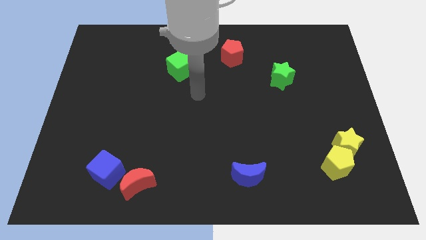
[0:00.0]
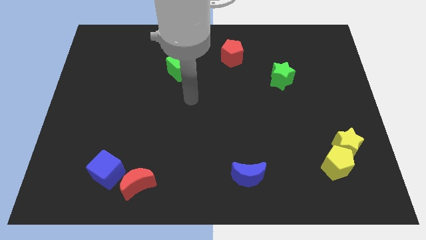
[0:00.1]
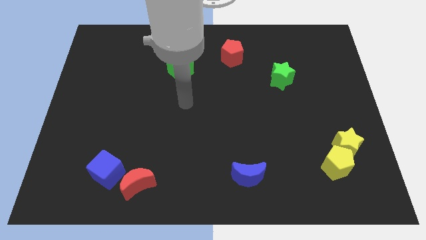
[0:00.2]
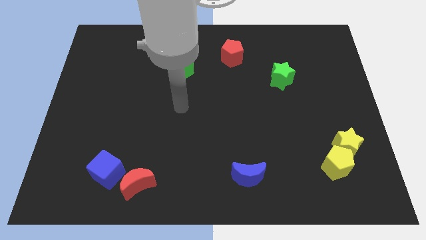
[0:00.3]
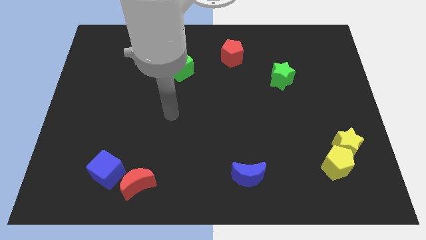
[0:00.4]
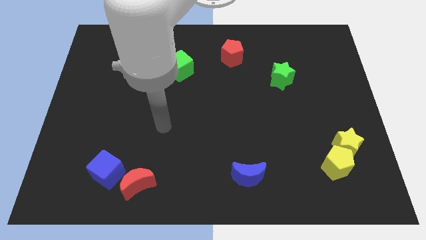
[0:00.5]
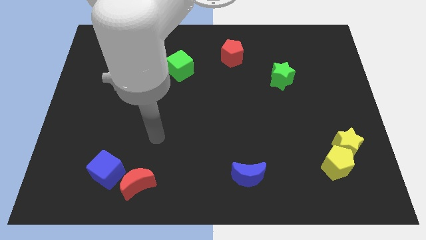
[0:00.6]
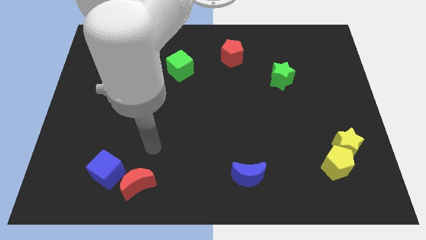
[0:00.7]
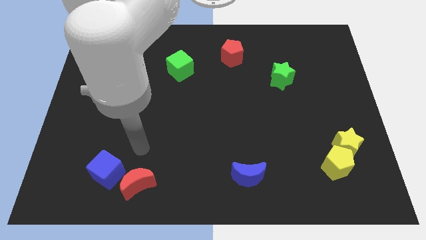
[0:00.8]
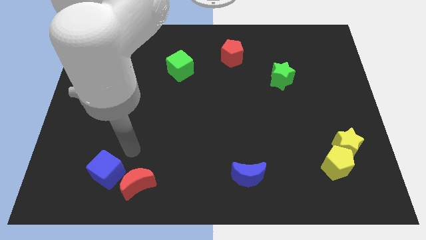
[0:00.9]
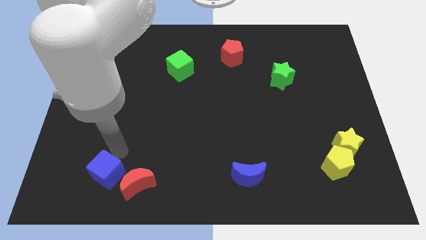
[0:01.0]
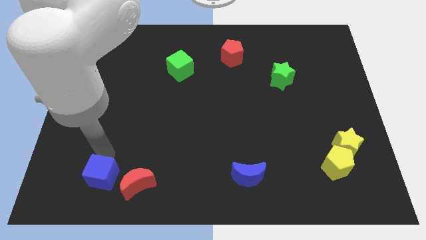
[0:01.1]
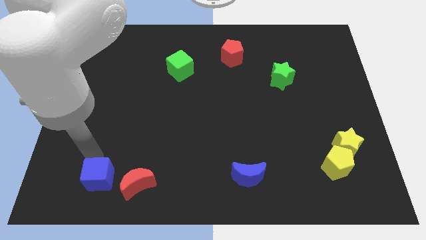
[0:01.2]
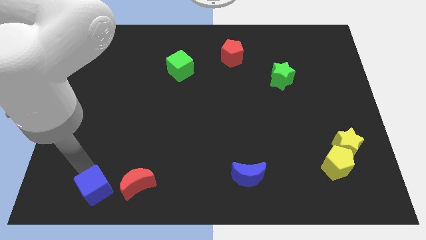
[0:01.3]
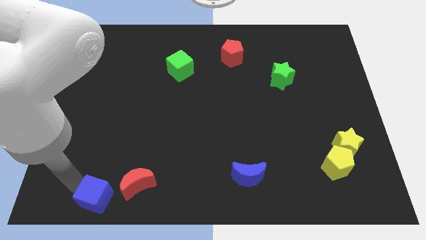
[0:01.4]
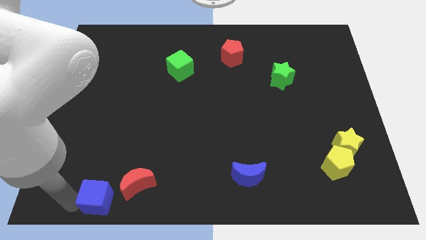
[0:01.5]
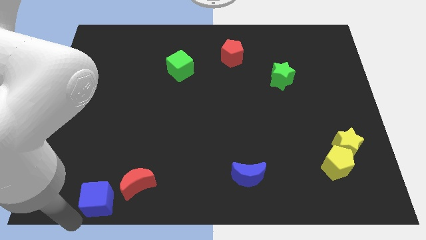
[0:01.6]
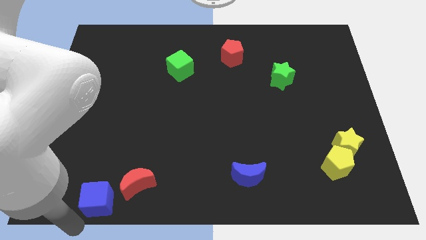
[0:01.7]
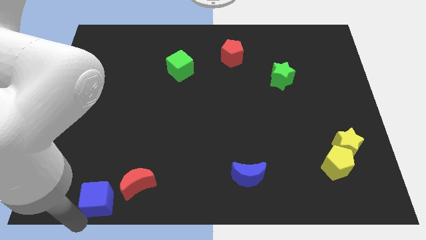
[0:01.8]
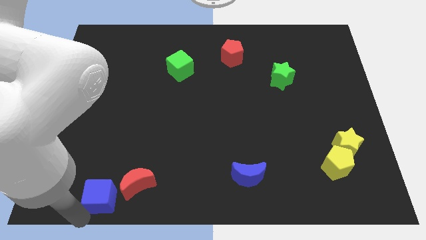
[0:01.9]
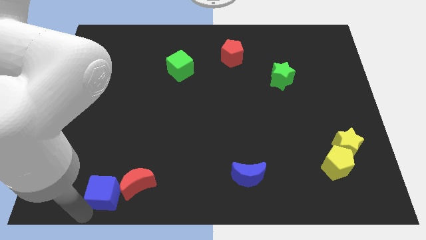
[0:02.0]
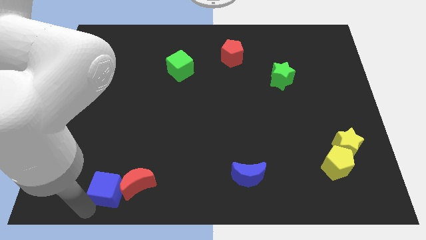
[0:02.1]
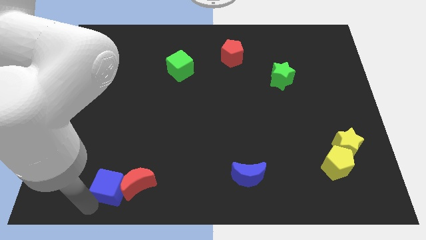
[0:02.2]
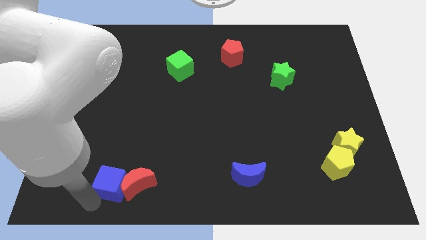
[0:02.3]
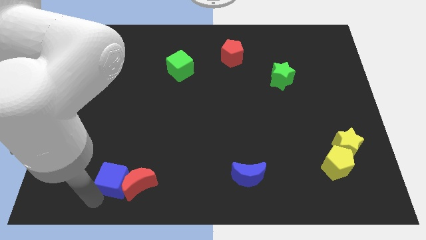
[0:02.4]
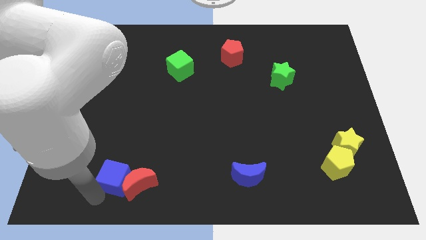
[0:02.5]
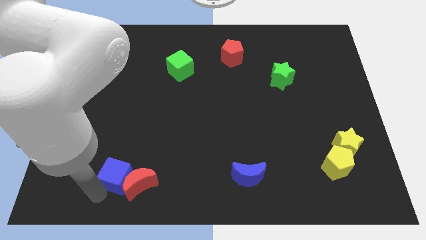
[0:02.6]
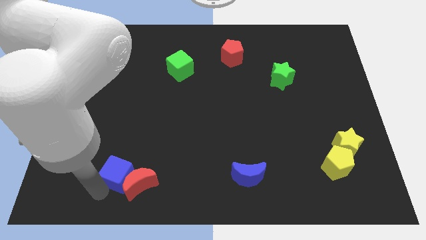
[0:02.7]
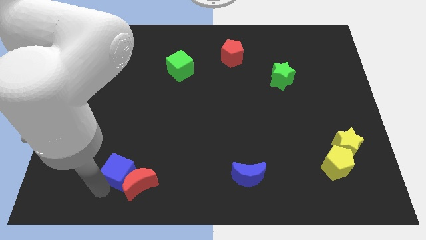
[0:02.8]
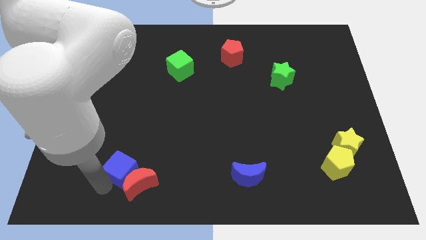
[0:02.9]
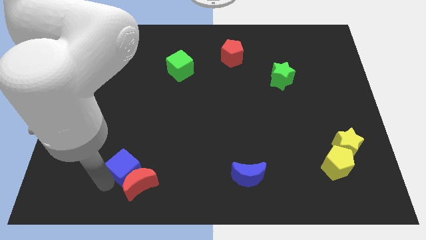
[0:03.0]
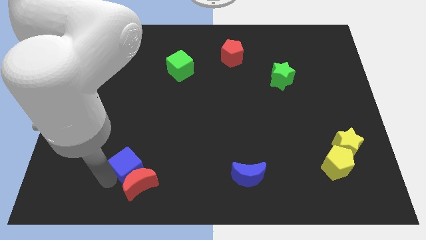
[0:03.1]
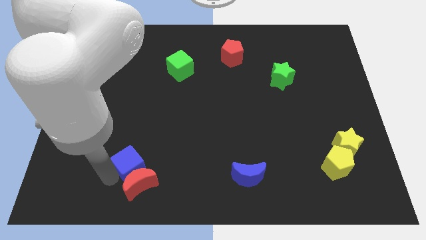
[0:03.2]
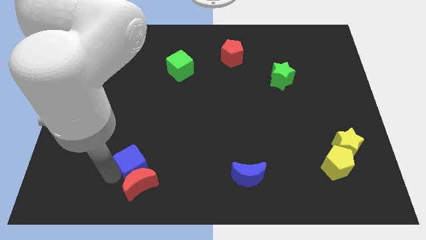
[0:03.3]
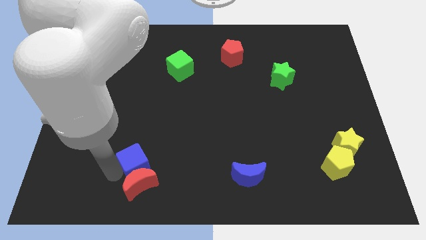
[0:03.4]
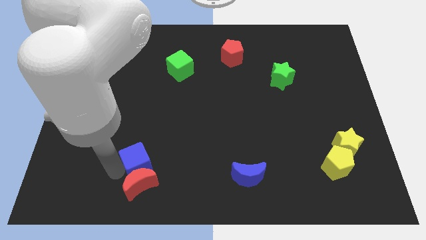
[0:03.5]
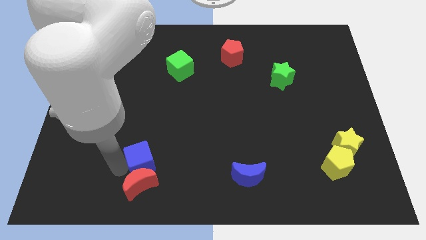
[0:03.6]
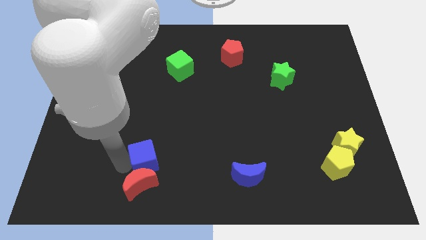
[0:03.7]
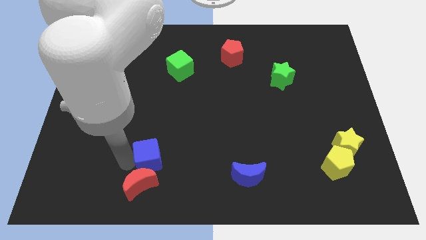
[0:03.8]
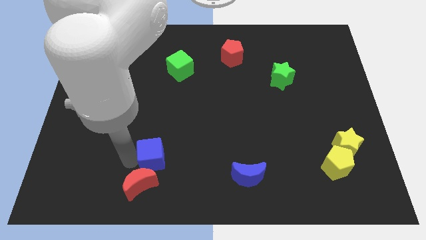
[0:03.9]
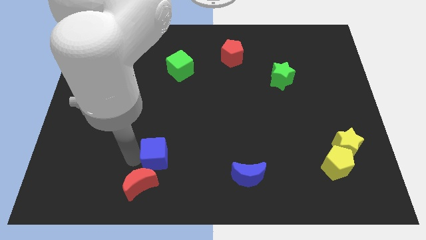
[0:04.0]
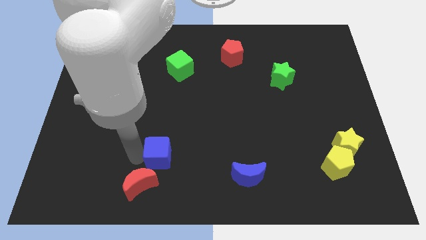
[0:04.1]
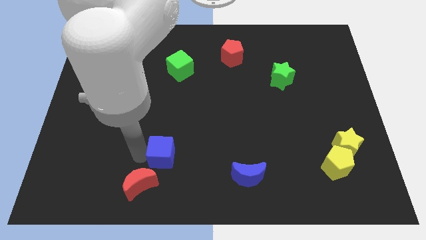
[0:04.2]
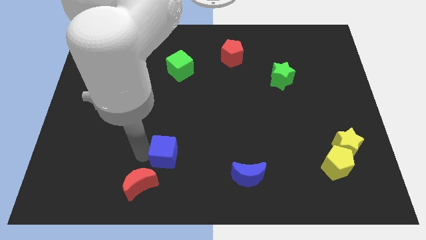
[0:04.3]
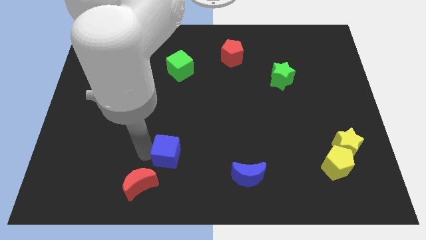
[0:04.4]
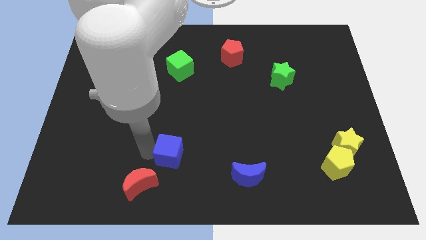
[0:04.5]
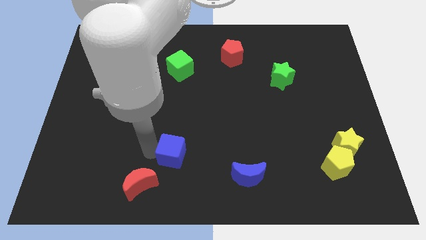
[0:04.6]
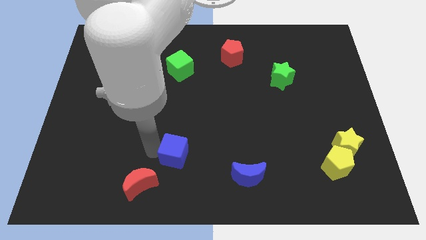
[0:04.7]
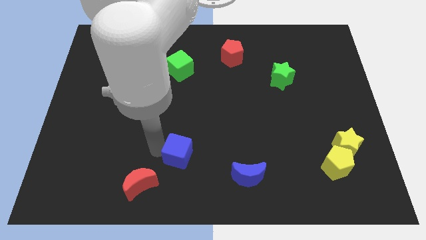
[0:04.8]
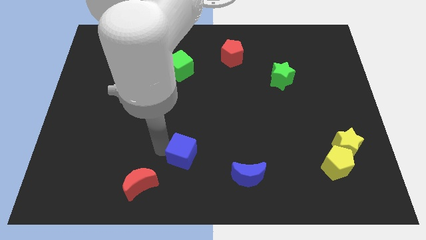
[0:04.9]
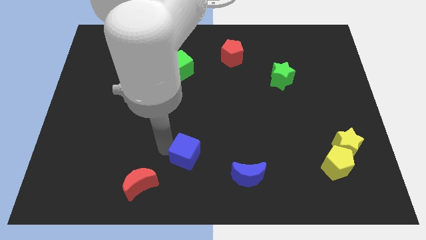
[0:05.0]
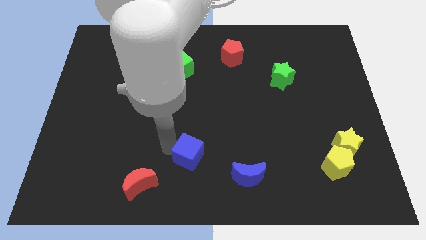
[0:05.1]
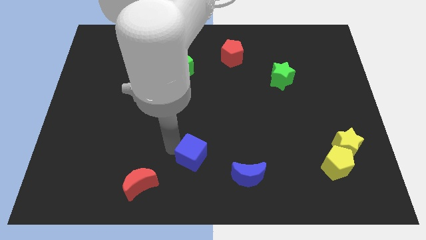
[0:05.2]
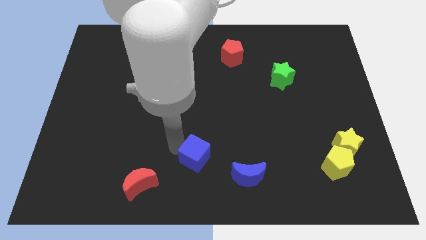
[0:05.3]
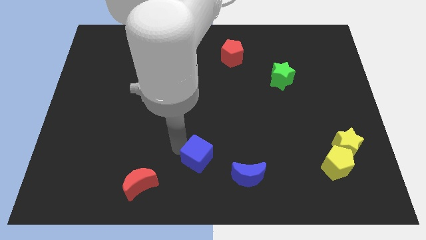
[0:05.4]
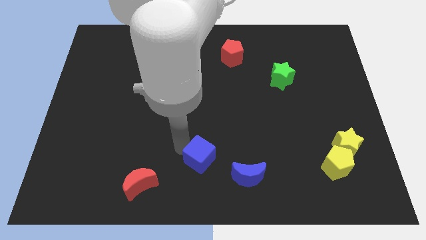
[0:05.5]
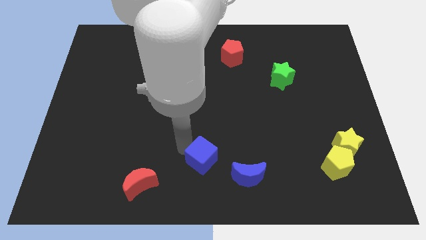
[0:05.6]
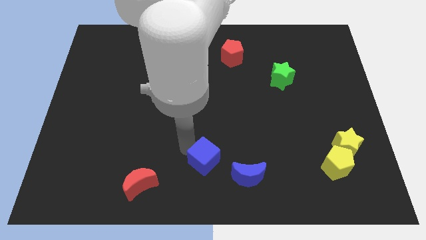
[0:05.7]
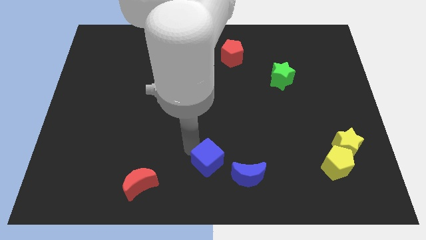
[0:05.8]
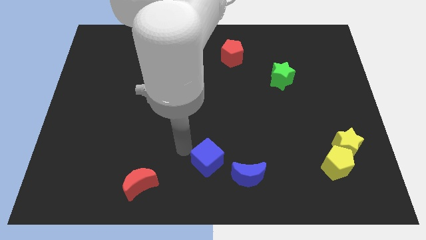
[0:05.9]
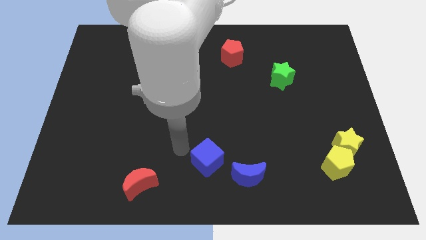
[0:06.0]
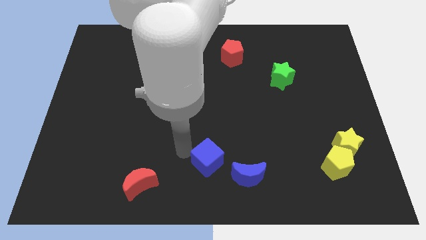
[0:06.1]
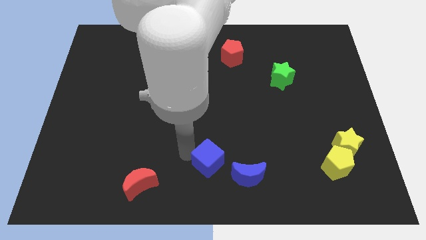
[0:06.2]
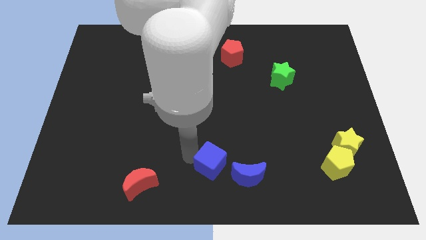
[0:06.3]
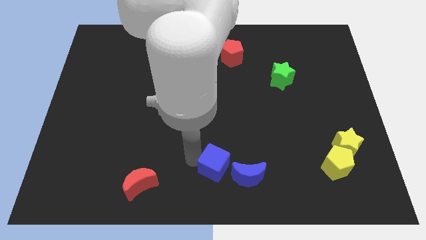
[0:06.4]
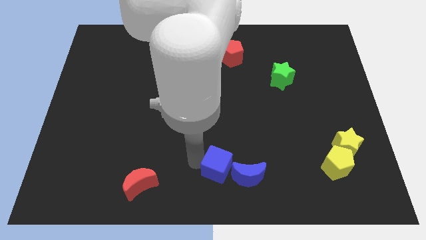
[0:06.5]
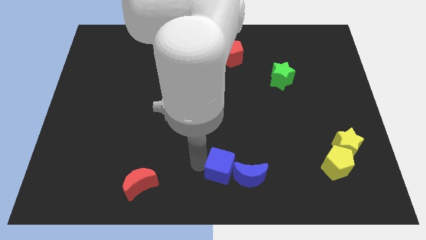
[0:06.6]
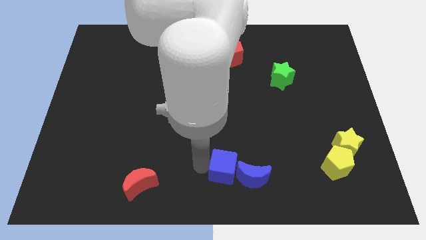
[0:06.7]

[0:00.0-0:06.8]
put the blue cube next to the blue moon
